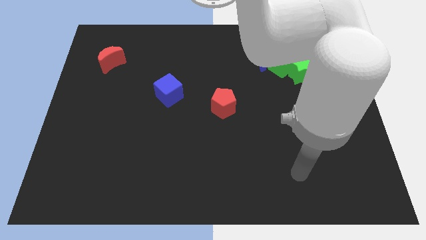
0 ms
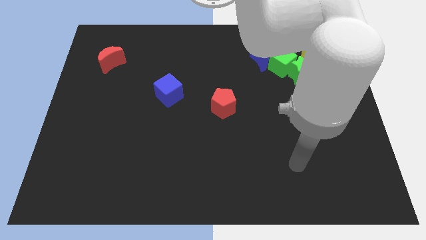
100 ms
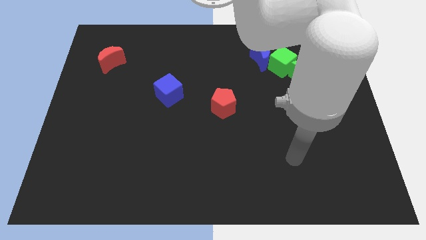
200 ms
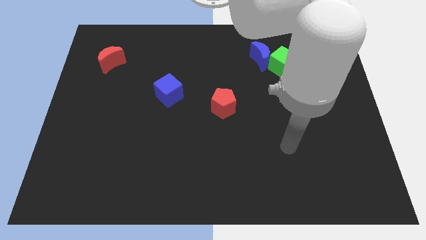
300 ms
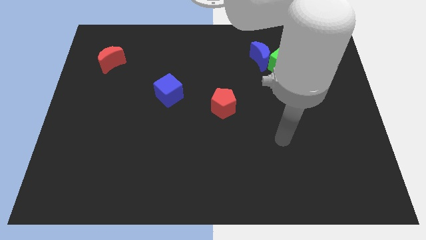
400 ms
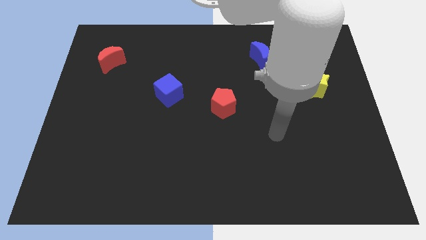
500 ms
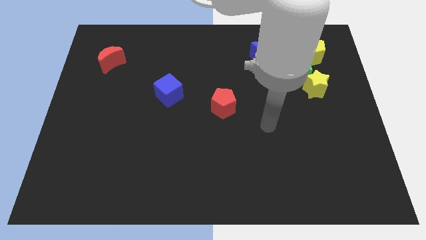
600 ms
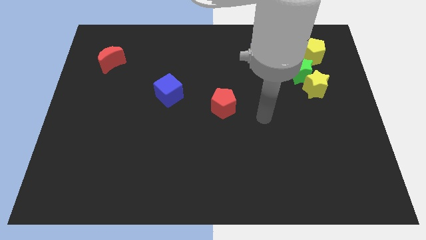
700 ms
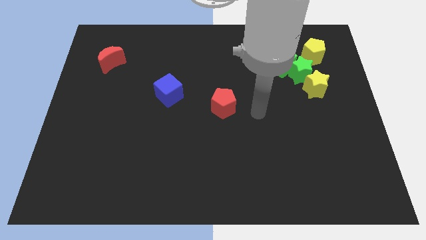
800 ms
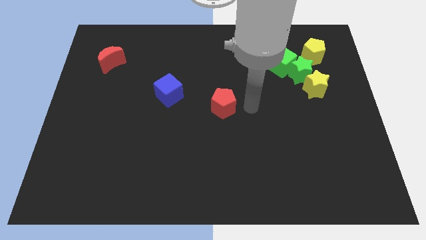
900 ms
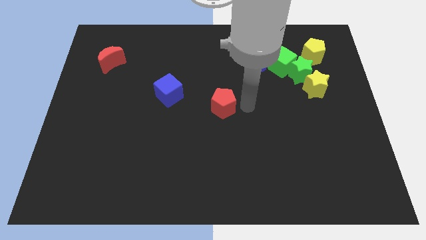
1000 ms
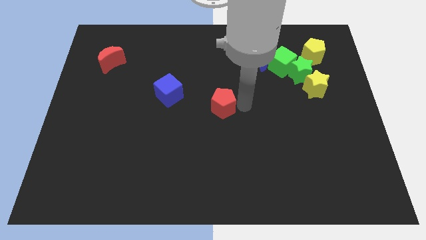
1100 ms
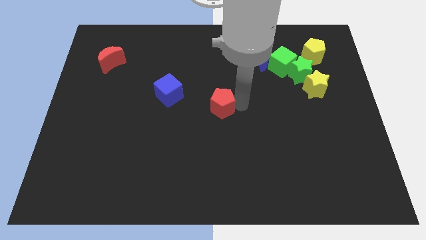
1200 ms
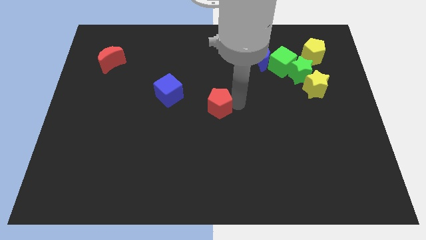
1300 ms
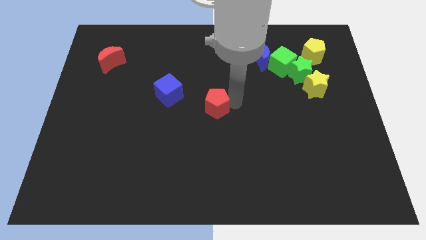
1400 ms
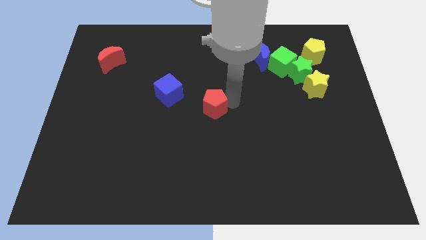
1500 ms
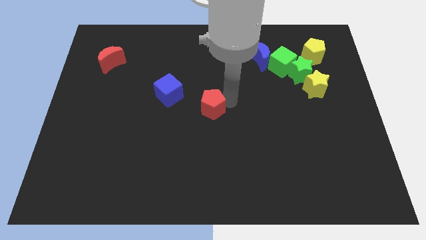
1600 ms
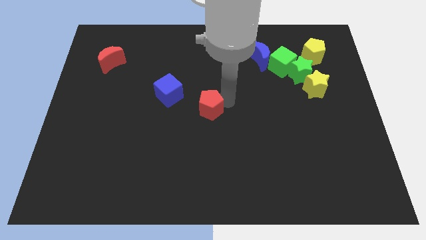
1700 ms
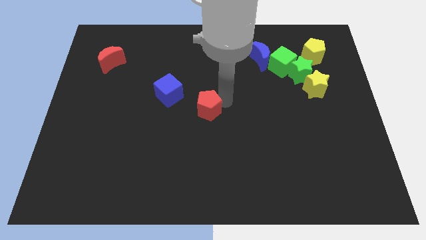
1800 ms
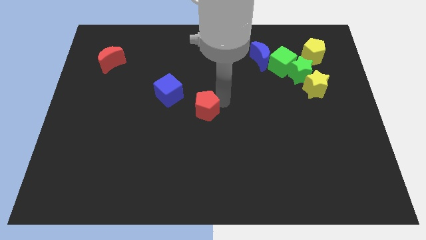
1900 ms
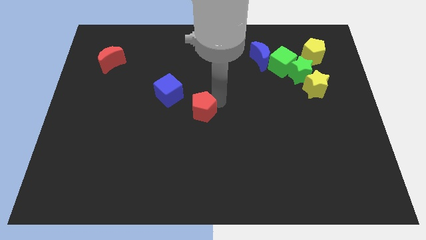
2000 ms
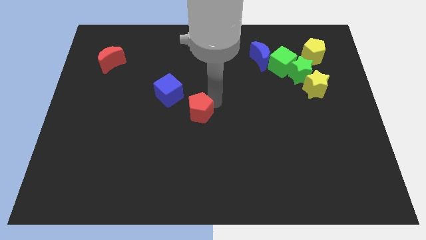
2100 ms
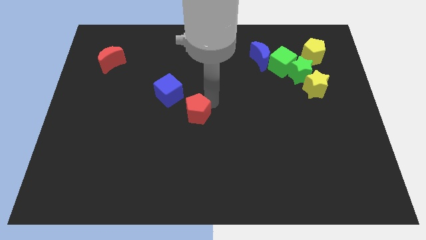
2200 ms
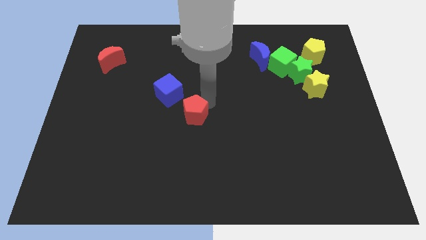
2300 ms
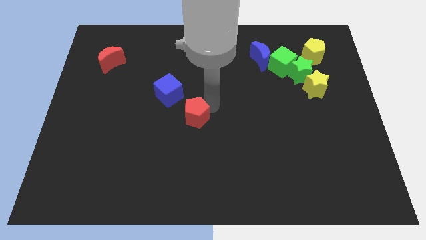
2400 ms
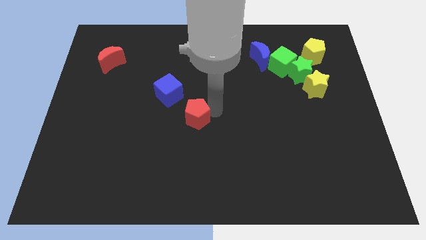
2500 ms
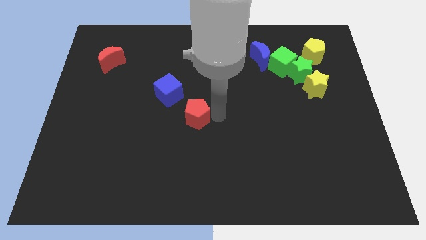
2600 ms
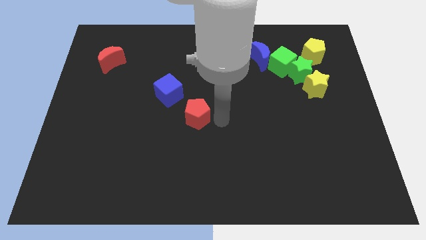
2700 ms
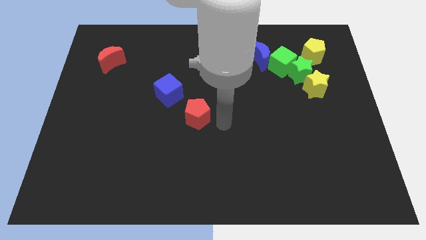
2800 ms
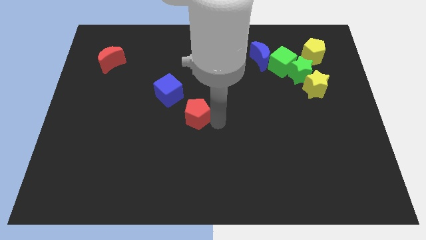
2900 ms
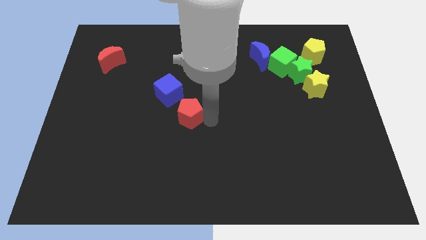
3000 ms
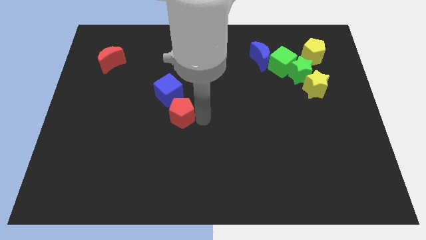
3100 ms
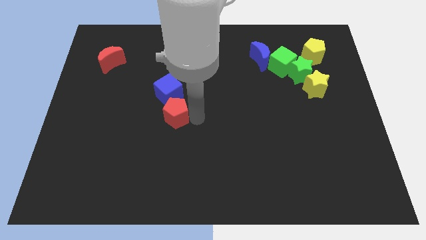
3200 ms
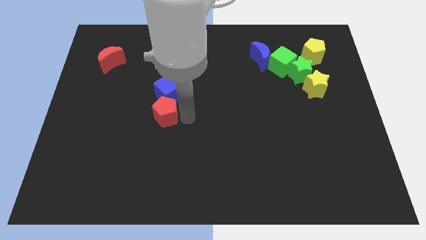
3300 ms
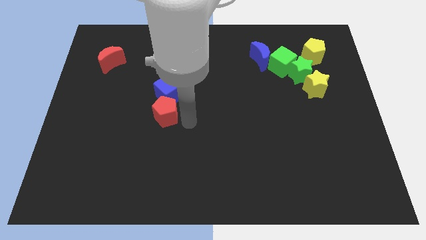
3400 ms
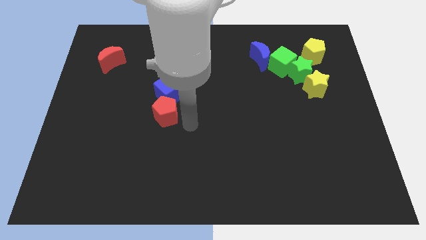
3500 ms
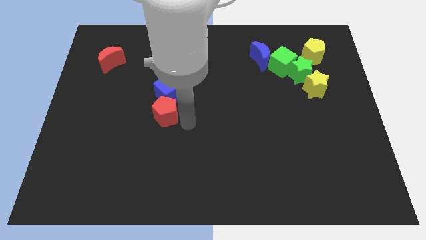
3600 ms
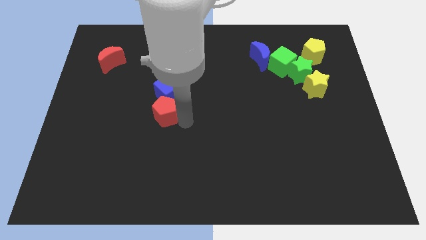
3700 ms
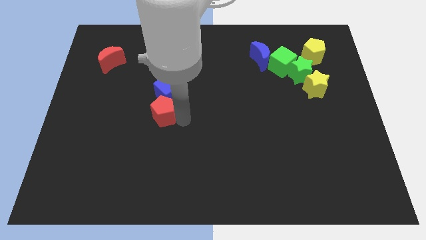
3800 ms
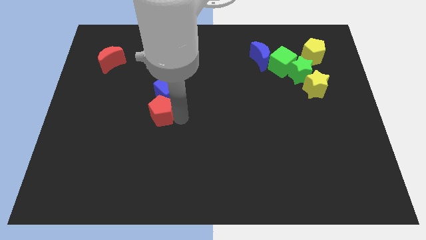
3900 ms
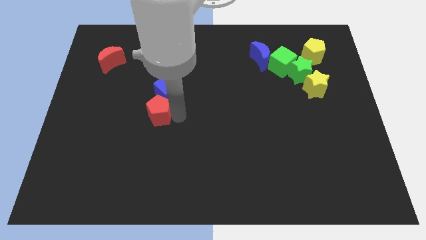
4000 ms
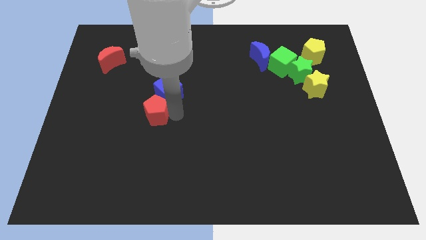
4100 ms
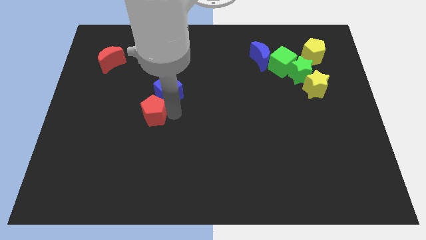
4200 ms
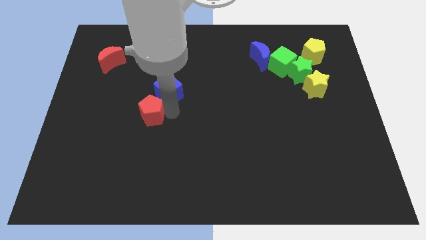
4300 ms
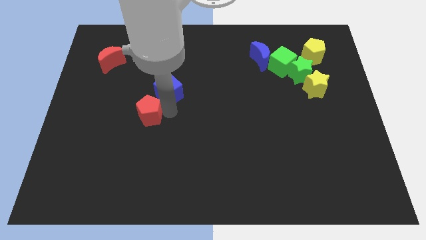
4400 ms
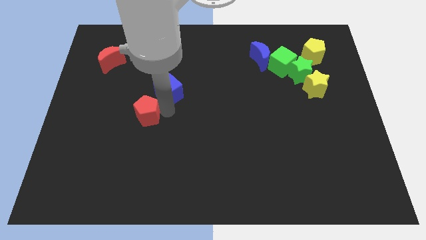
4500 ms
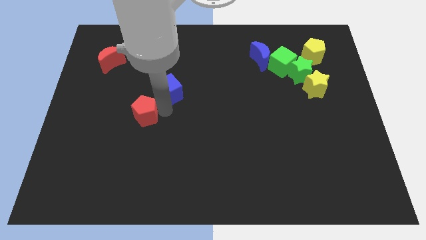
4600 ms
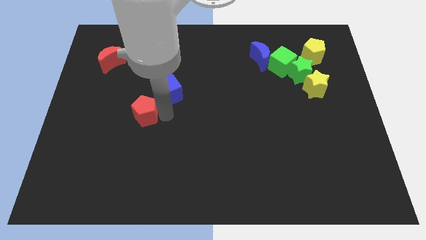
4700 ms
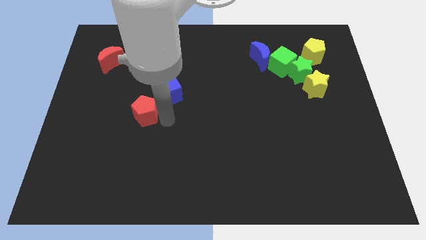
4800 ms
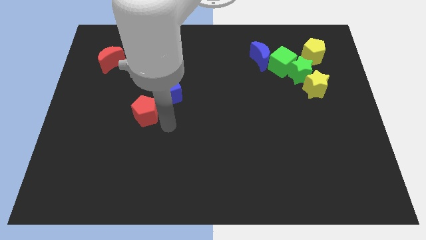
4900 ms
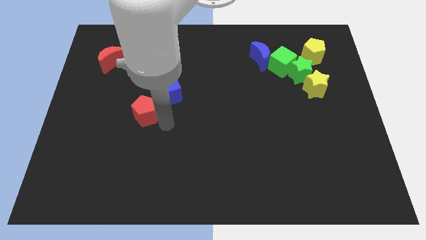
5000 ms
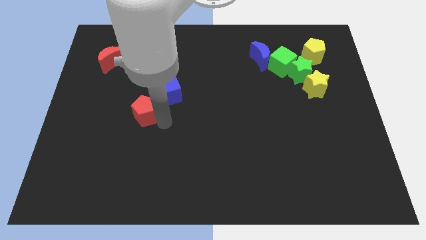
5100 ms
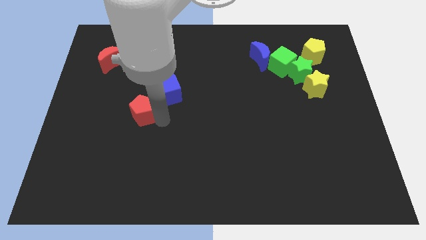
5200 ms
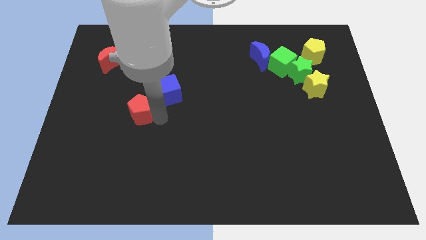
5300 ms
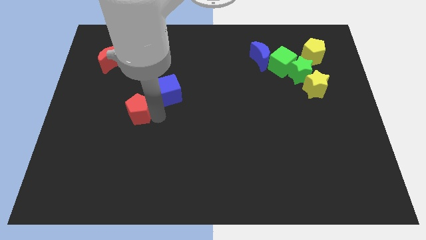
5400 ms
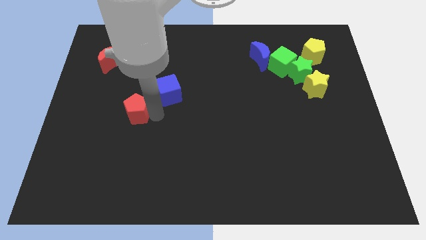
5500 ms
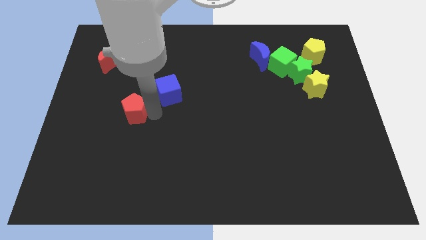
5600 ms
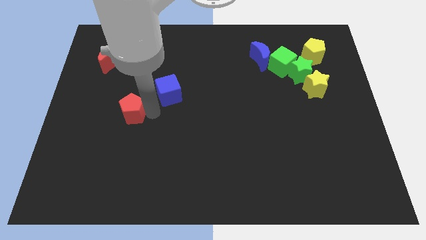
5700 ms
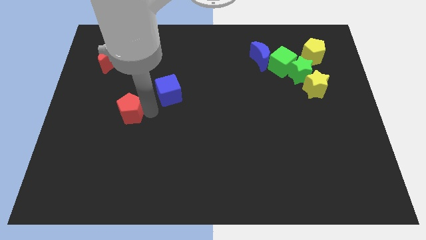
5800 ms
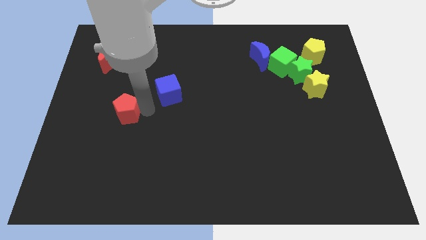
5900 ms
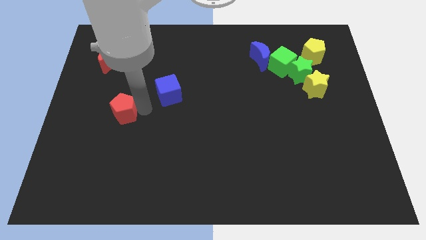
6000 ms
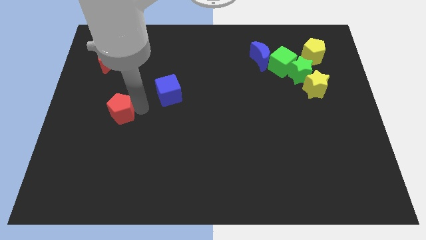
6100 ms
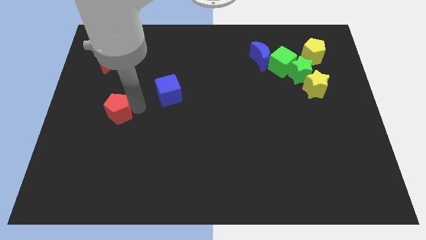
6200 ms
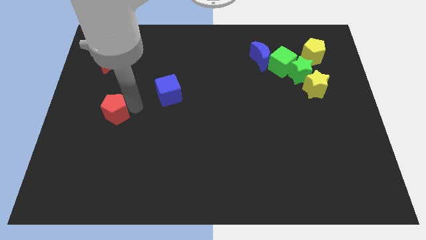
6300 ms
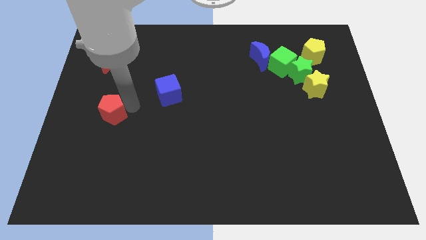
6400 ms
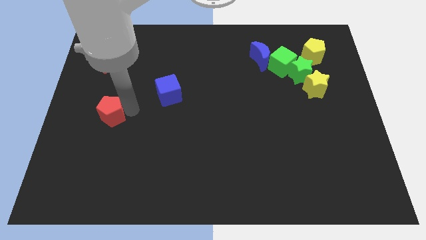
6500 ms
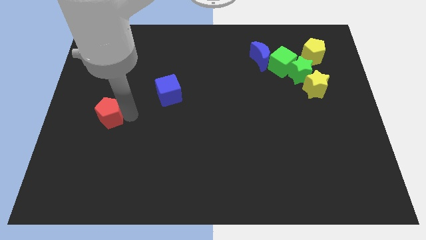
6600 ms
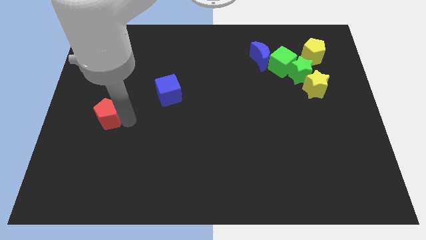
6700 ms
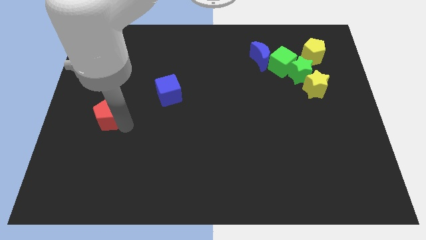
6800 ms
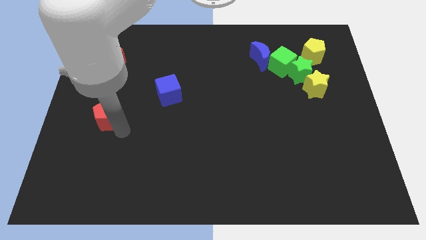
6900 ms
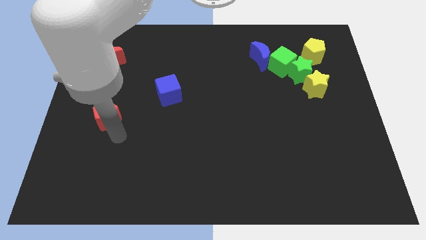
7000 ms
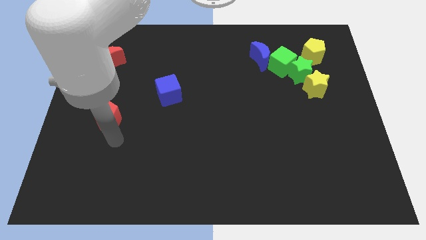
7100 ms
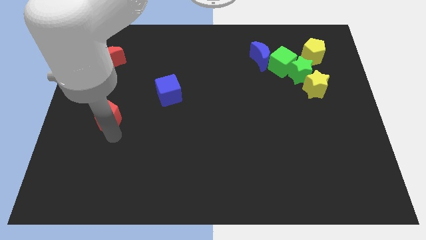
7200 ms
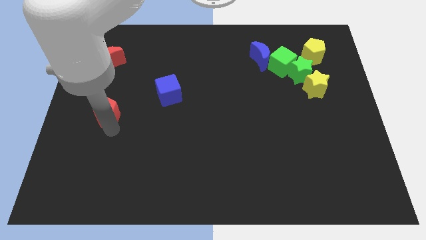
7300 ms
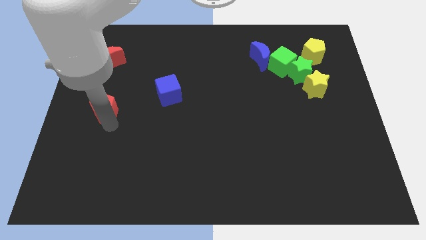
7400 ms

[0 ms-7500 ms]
put the red pentagon to the center left
